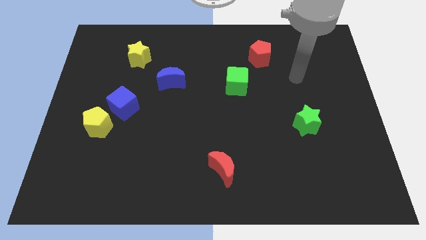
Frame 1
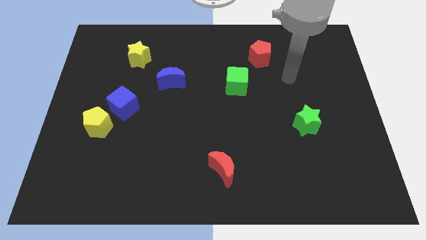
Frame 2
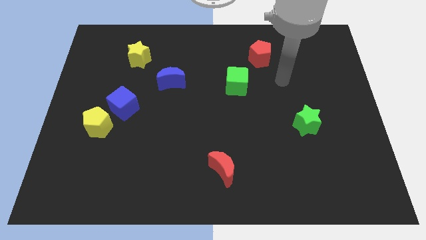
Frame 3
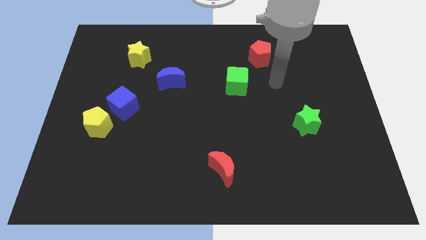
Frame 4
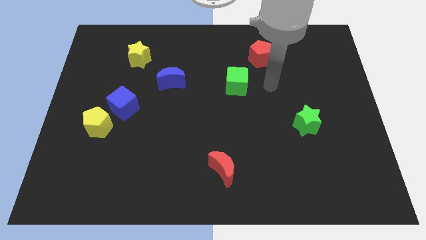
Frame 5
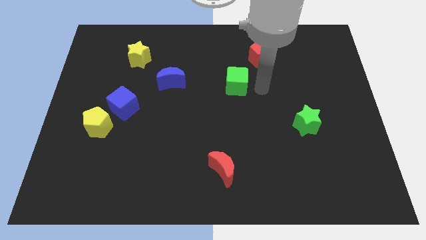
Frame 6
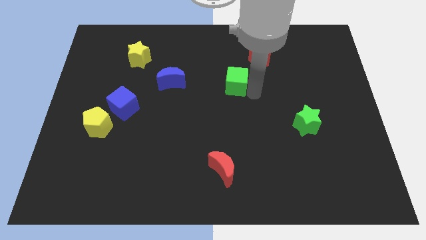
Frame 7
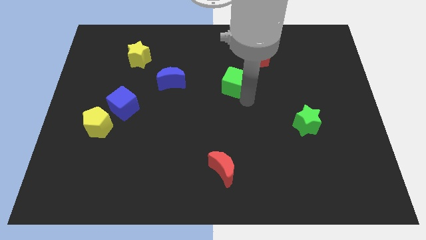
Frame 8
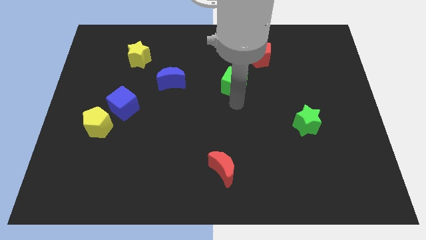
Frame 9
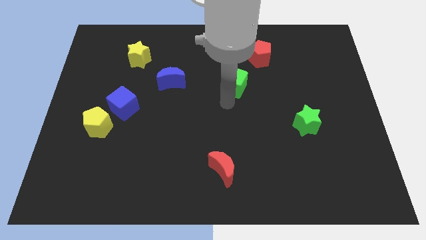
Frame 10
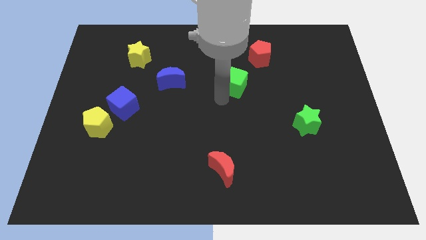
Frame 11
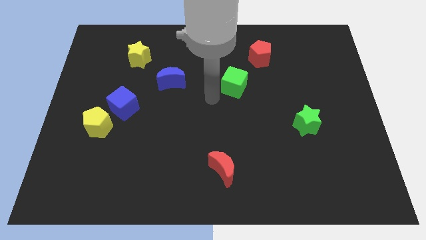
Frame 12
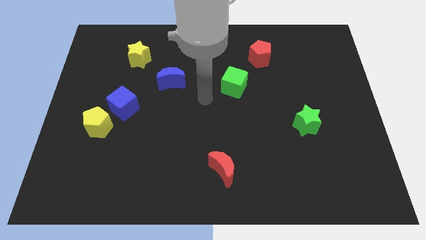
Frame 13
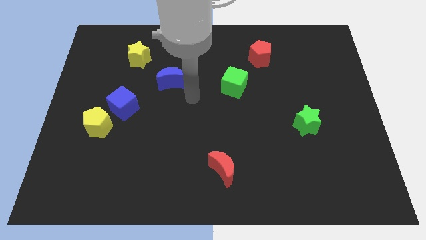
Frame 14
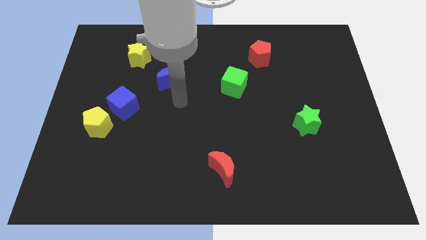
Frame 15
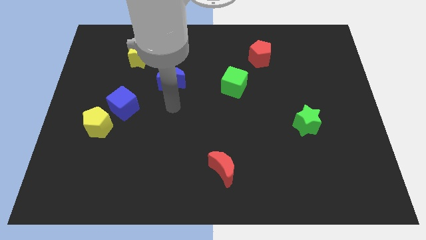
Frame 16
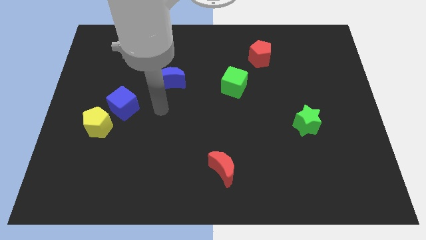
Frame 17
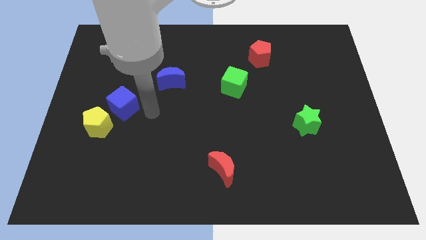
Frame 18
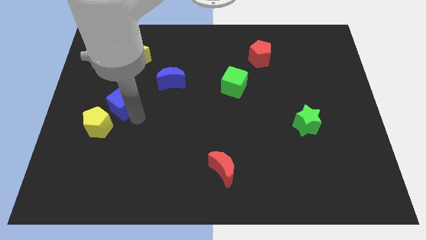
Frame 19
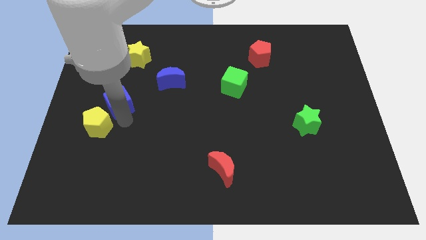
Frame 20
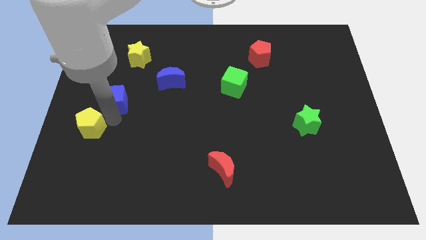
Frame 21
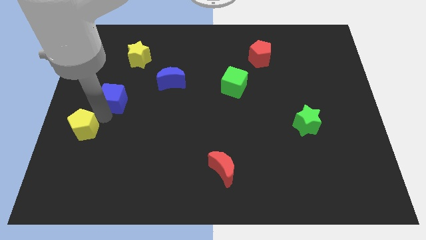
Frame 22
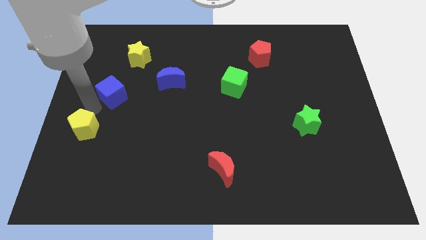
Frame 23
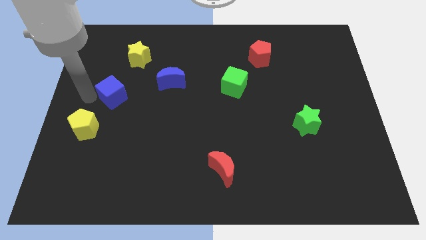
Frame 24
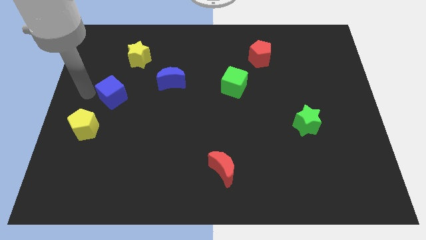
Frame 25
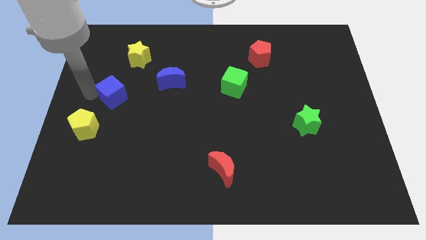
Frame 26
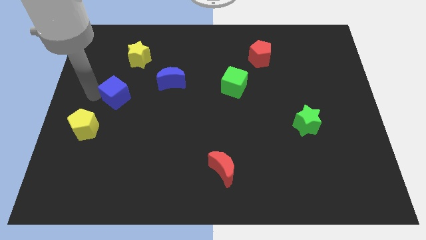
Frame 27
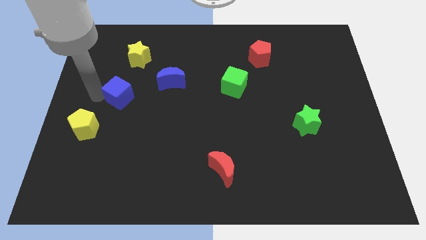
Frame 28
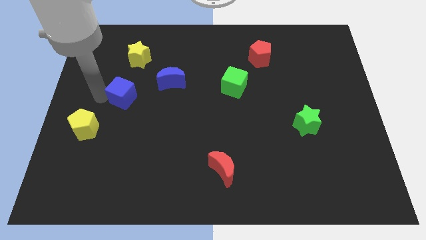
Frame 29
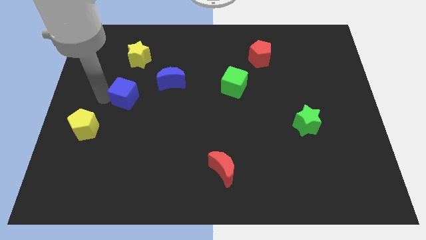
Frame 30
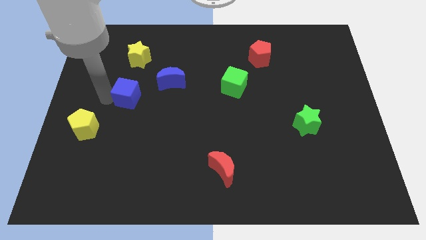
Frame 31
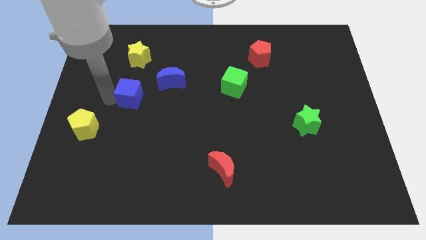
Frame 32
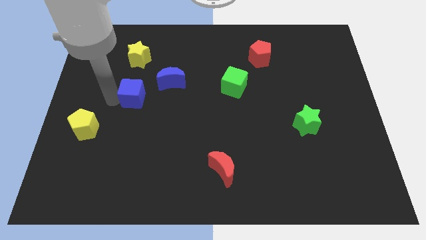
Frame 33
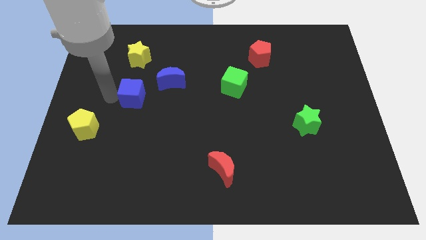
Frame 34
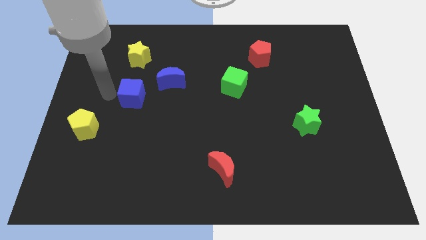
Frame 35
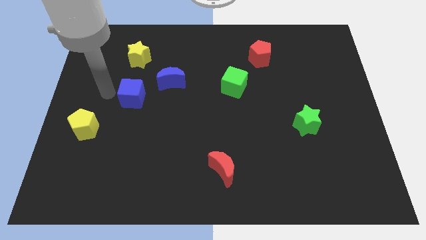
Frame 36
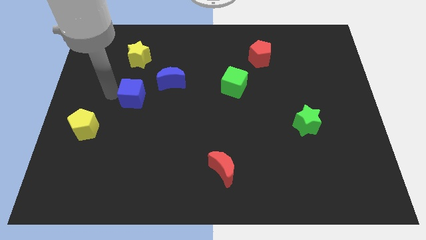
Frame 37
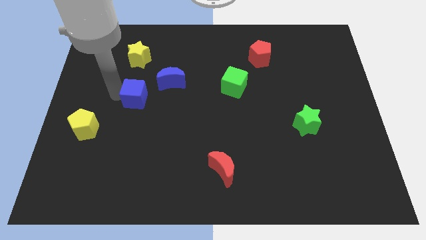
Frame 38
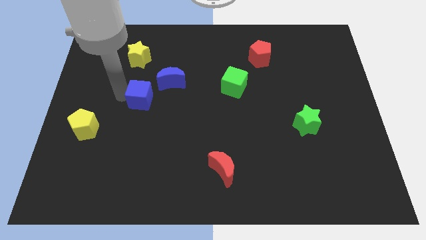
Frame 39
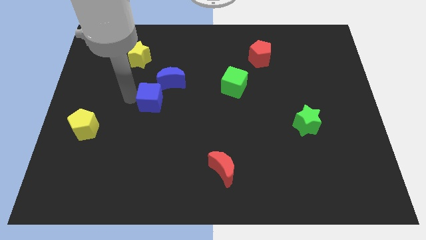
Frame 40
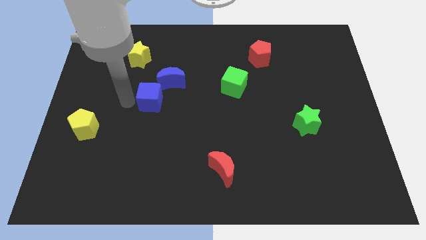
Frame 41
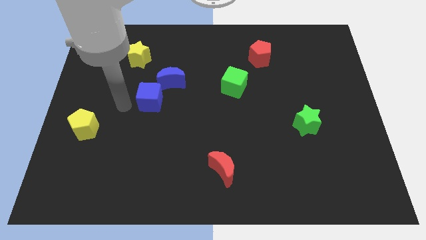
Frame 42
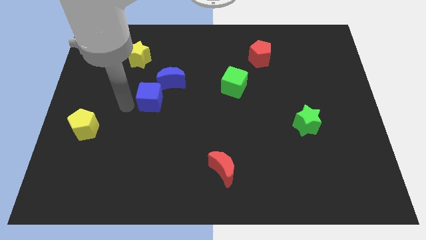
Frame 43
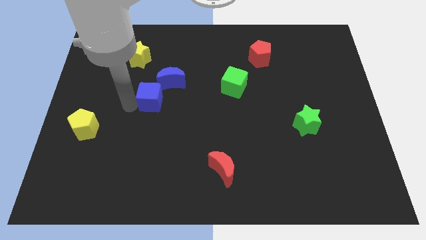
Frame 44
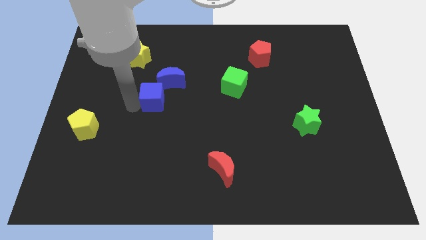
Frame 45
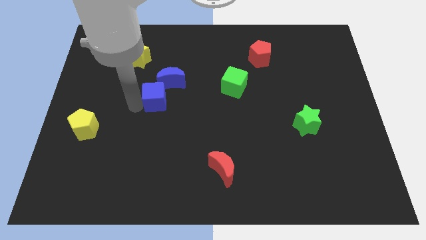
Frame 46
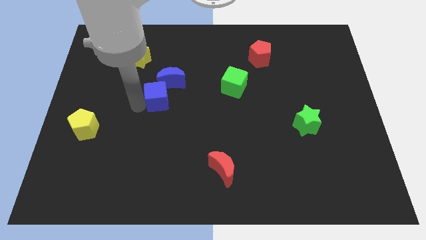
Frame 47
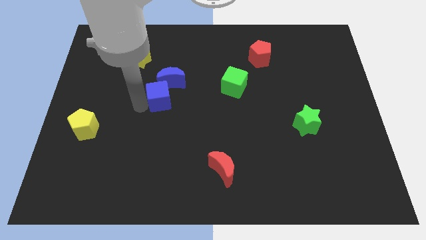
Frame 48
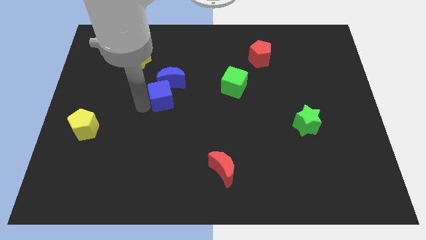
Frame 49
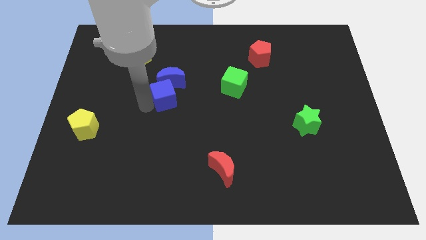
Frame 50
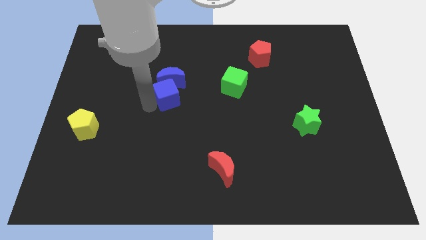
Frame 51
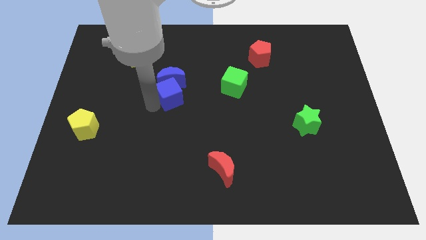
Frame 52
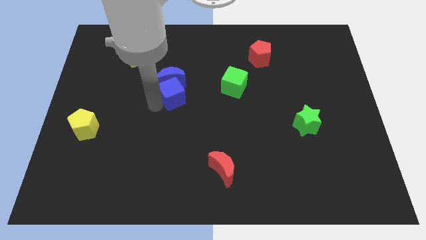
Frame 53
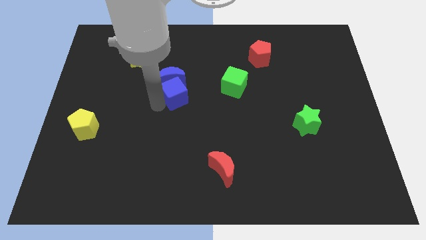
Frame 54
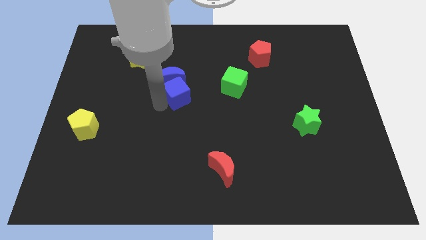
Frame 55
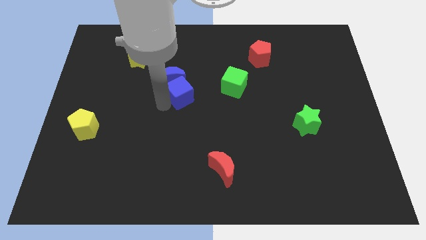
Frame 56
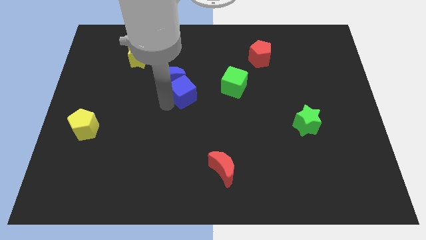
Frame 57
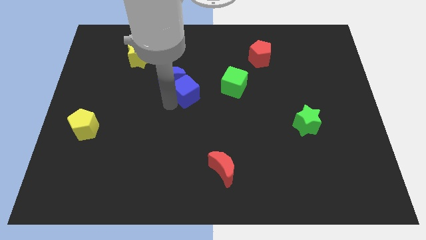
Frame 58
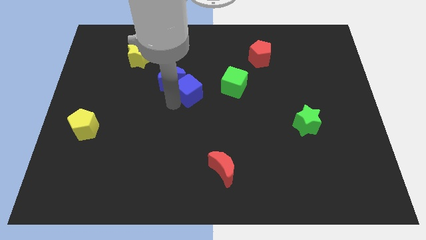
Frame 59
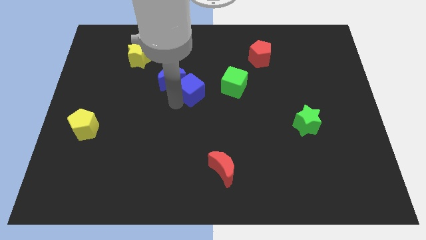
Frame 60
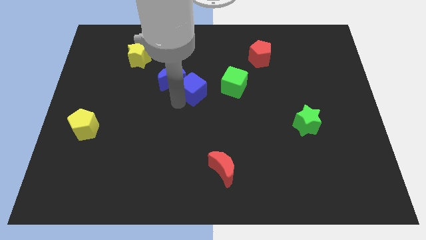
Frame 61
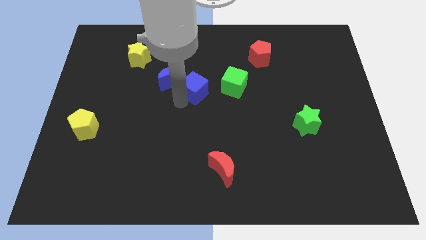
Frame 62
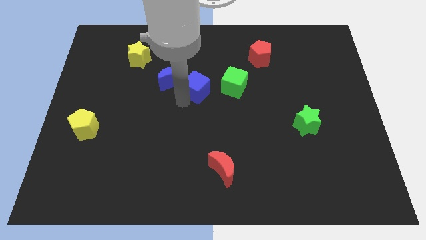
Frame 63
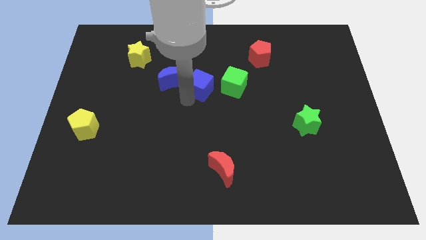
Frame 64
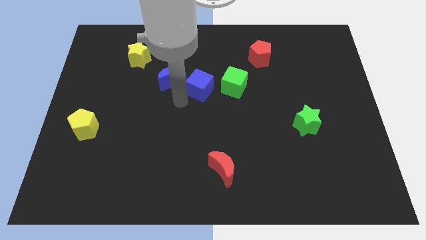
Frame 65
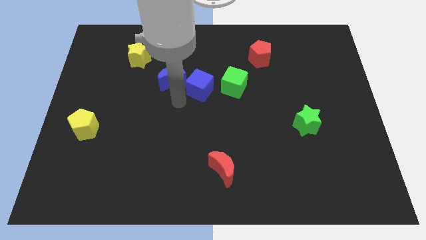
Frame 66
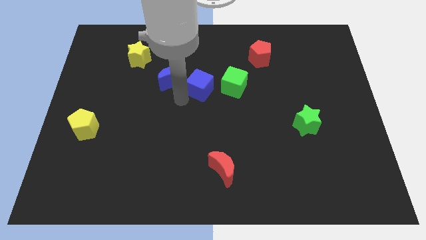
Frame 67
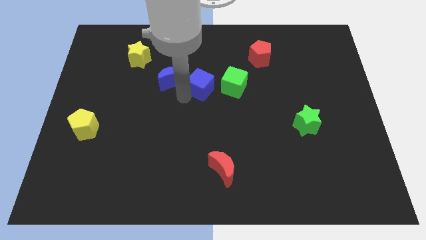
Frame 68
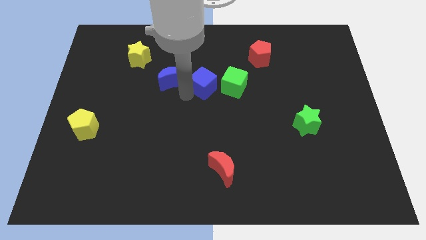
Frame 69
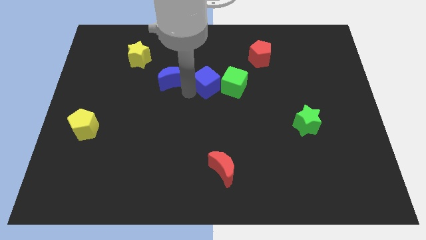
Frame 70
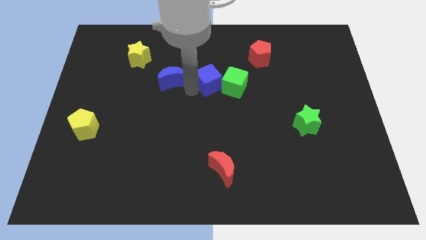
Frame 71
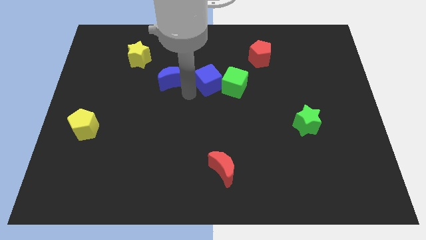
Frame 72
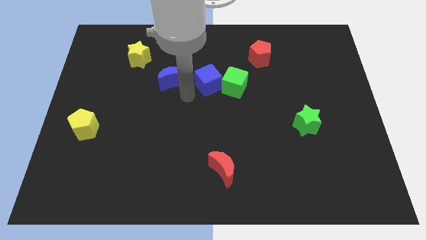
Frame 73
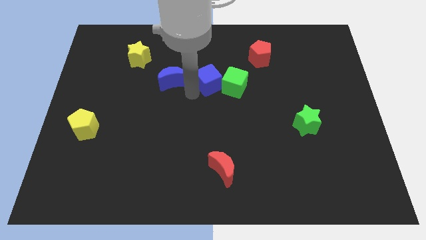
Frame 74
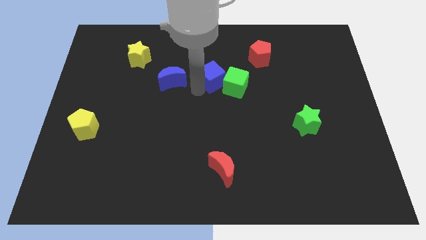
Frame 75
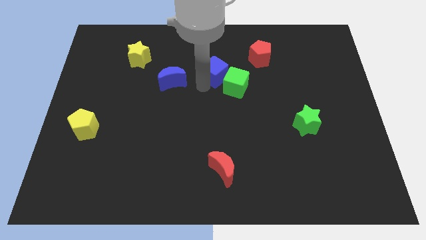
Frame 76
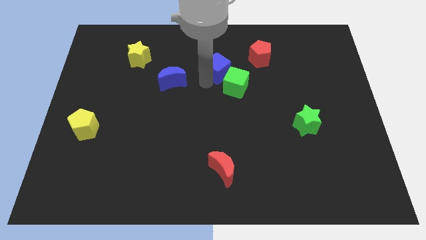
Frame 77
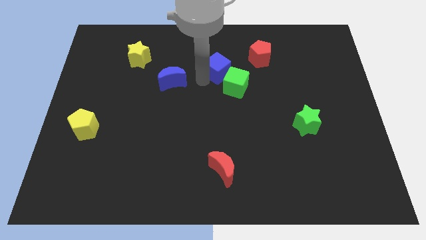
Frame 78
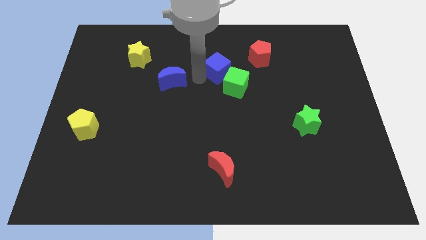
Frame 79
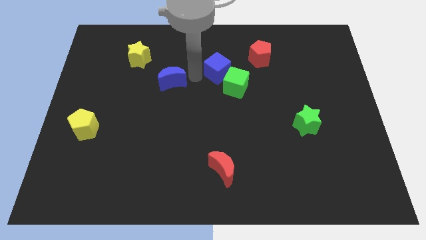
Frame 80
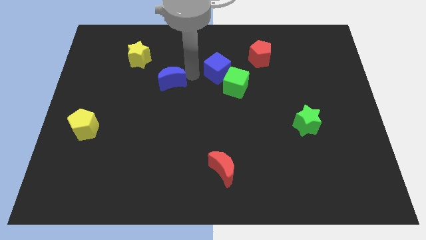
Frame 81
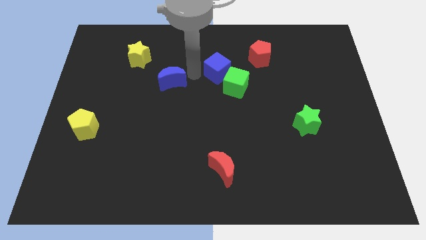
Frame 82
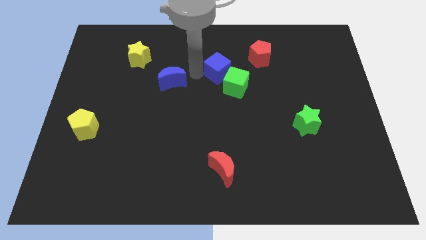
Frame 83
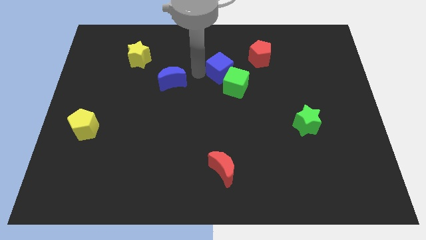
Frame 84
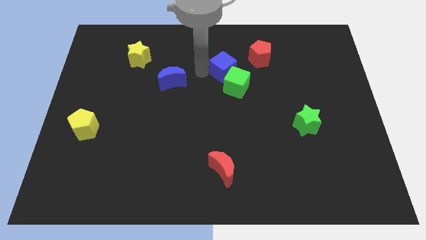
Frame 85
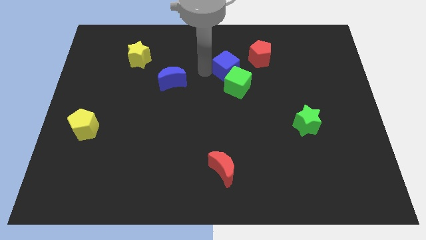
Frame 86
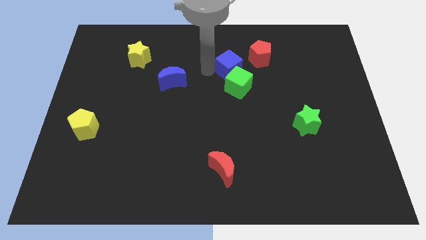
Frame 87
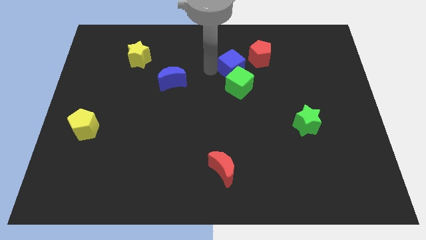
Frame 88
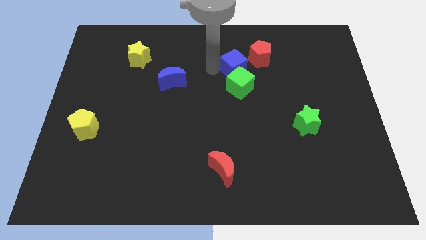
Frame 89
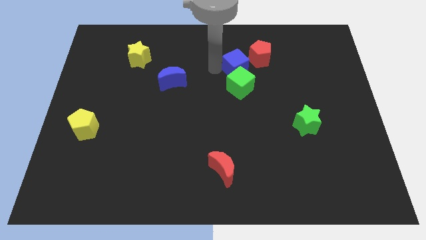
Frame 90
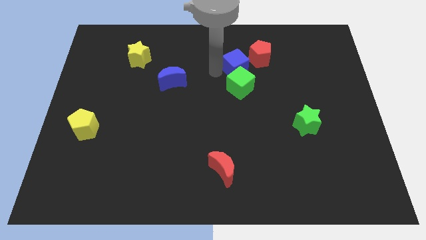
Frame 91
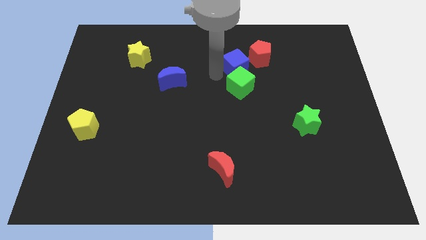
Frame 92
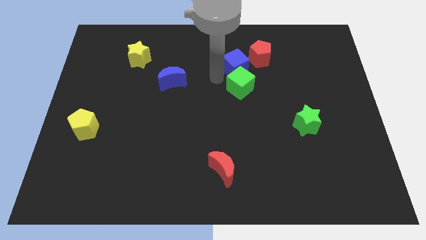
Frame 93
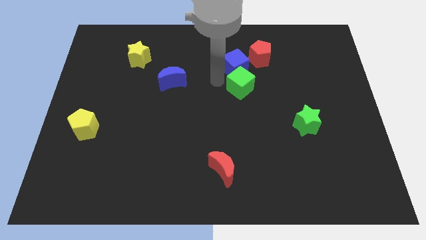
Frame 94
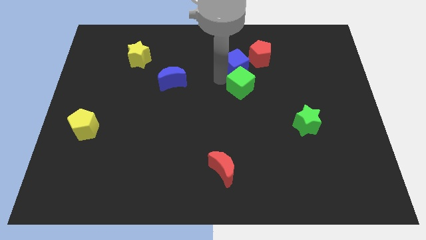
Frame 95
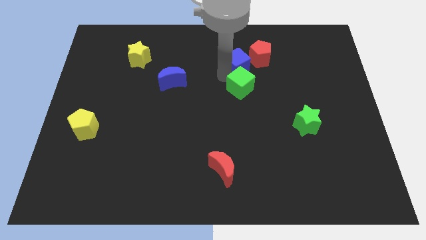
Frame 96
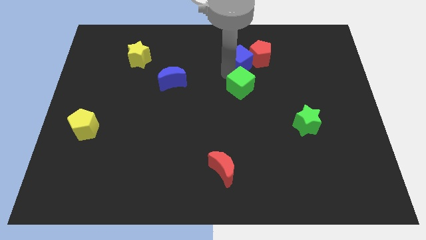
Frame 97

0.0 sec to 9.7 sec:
slide the blue cube next to the red pentagon
